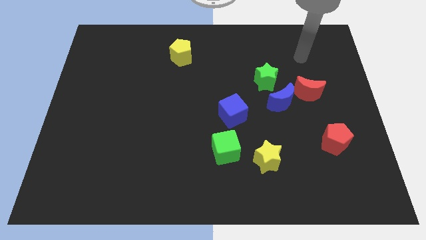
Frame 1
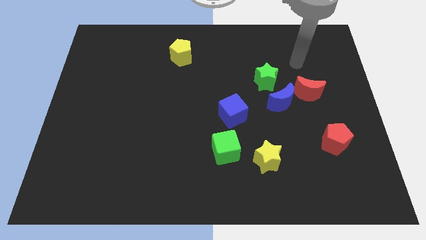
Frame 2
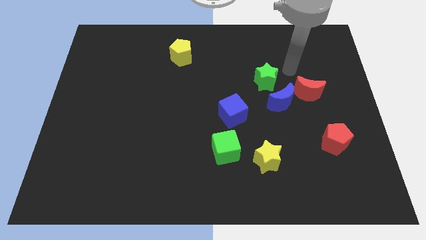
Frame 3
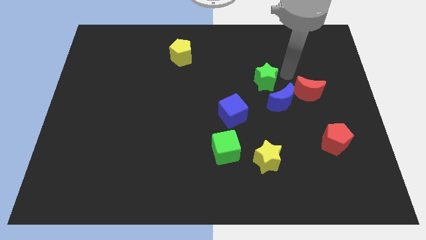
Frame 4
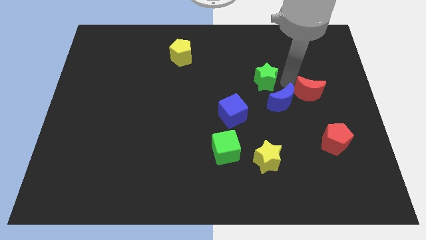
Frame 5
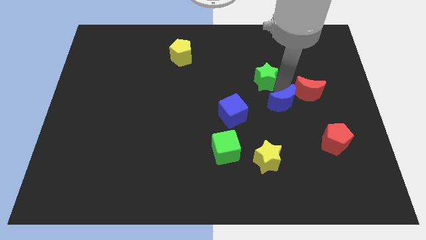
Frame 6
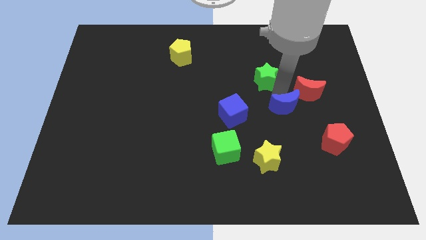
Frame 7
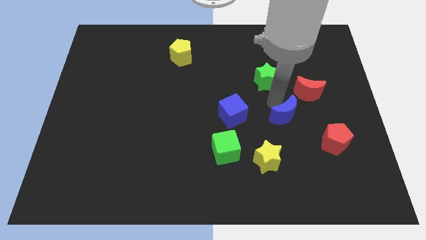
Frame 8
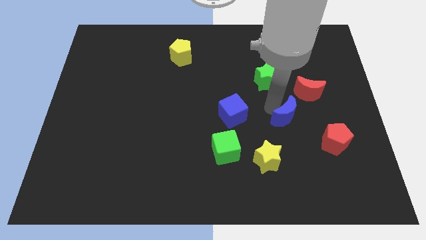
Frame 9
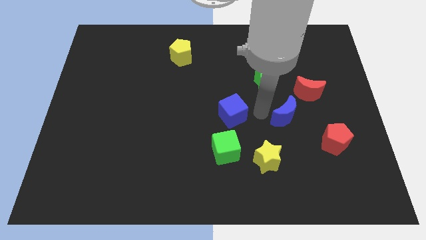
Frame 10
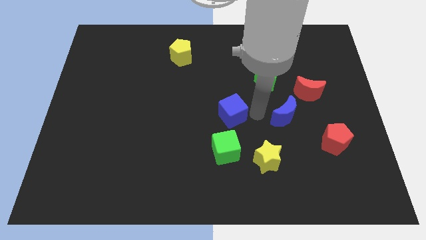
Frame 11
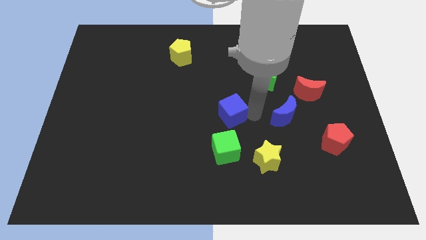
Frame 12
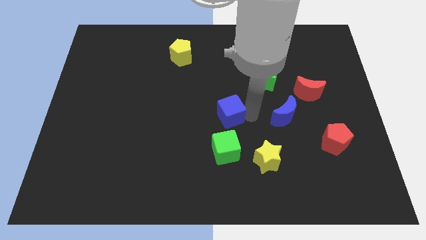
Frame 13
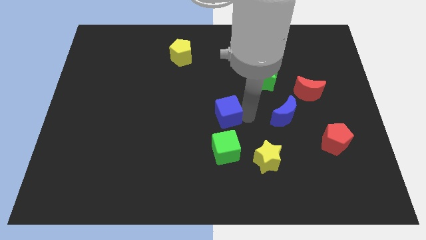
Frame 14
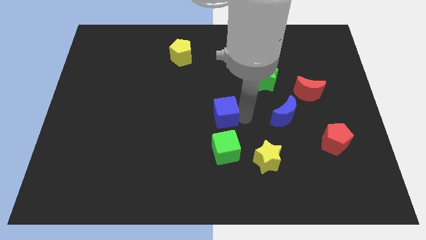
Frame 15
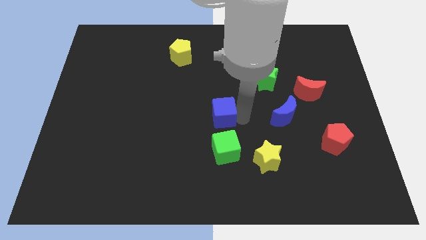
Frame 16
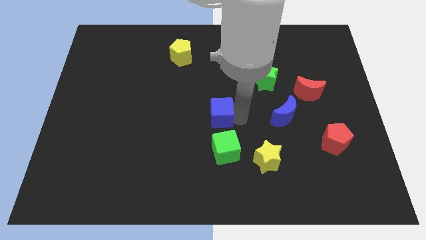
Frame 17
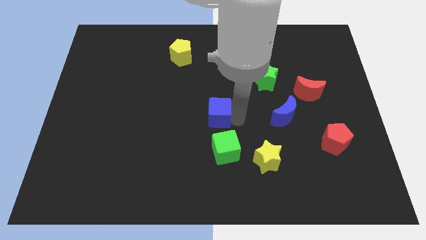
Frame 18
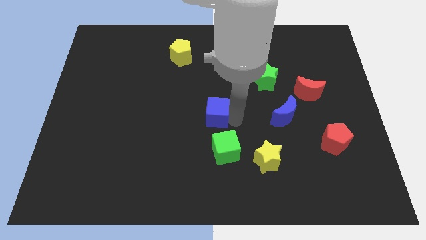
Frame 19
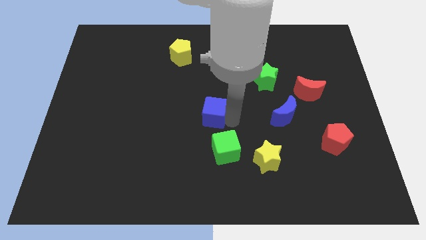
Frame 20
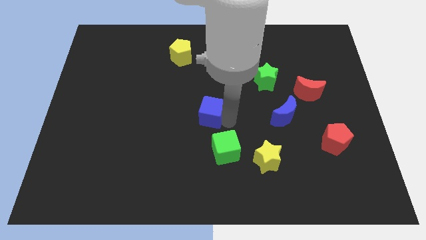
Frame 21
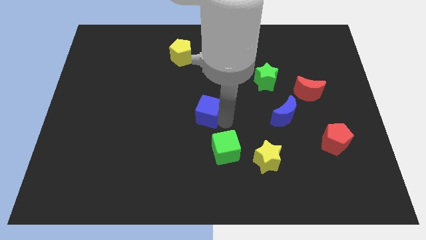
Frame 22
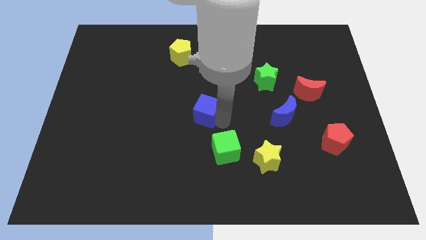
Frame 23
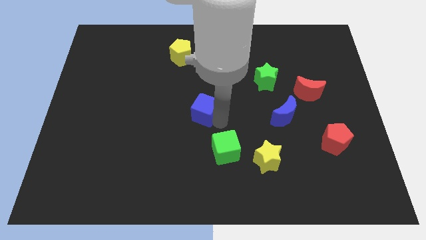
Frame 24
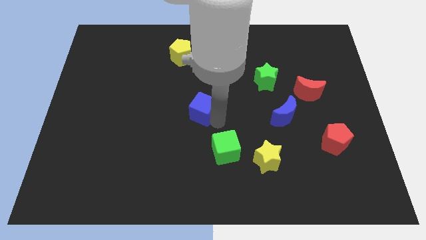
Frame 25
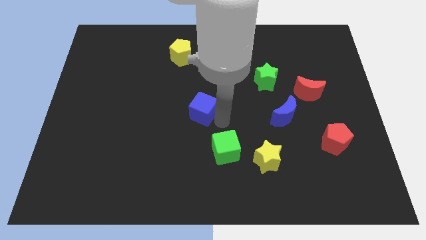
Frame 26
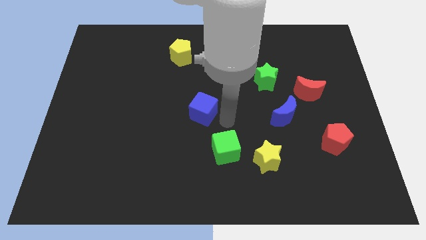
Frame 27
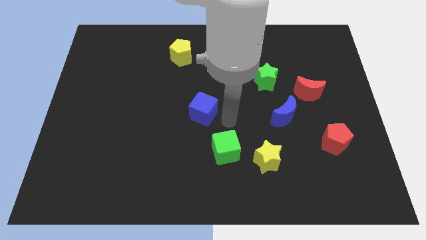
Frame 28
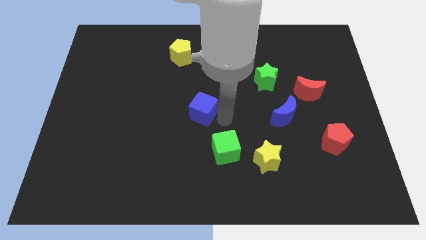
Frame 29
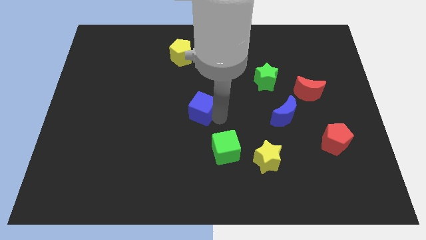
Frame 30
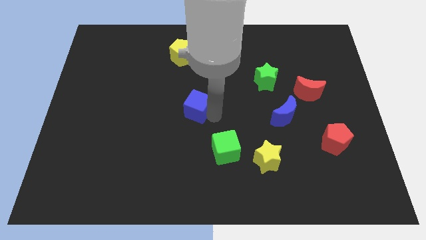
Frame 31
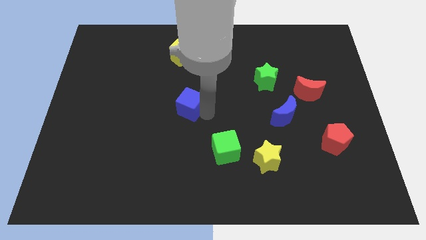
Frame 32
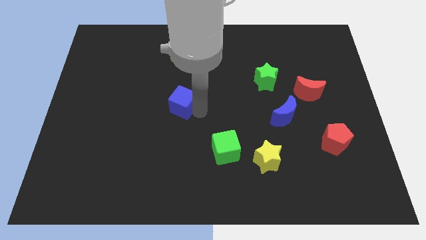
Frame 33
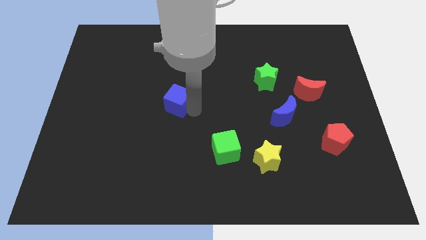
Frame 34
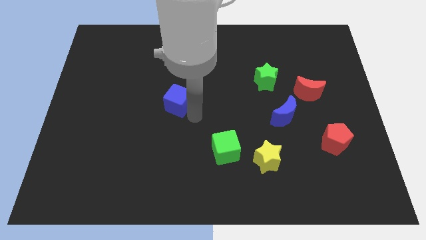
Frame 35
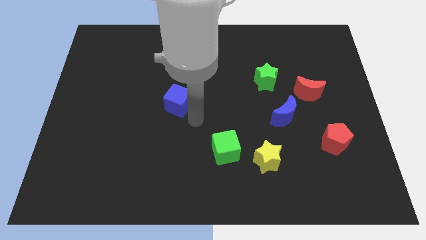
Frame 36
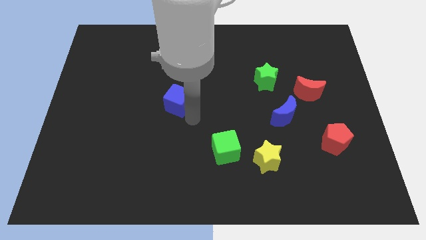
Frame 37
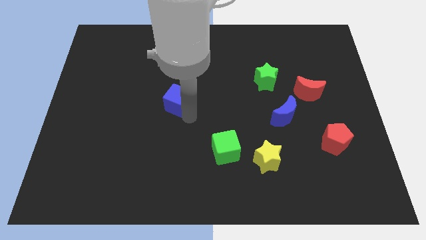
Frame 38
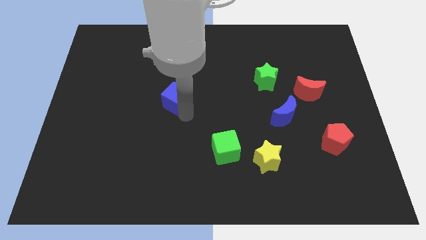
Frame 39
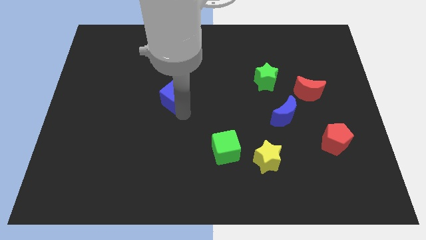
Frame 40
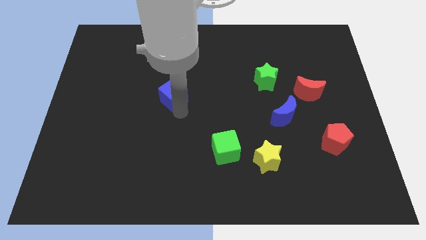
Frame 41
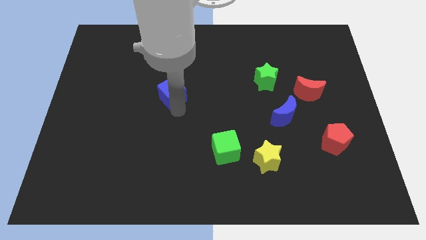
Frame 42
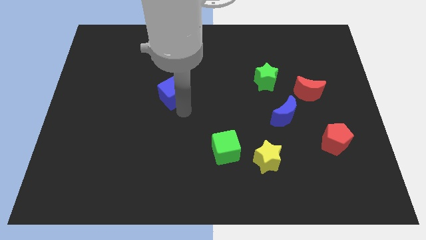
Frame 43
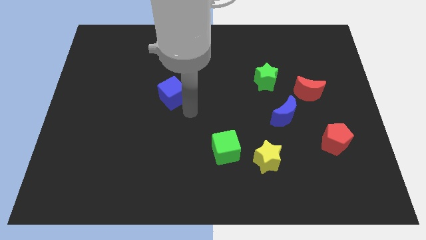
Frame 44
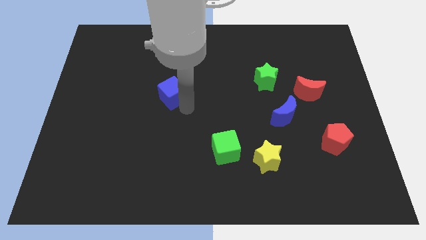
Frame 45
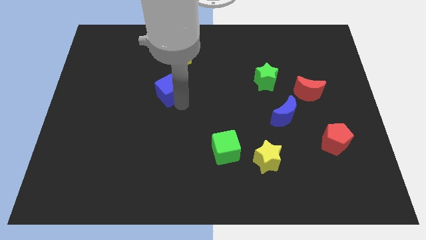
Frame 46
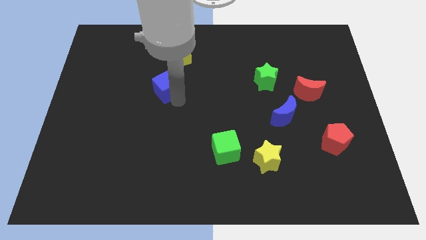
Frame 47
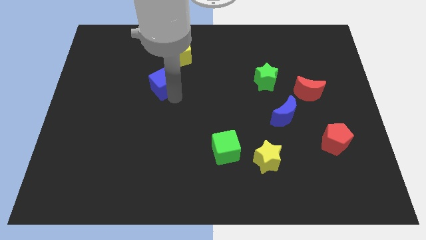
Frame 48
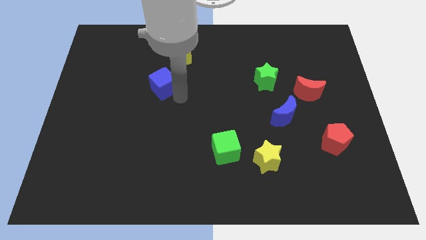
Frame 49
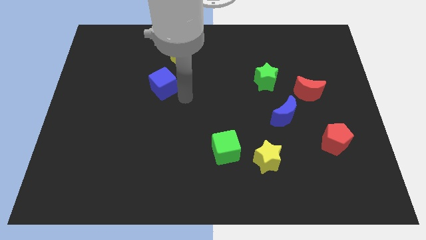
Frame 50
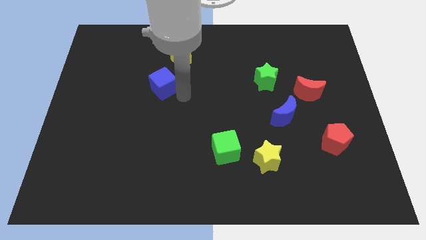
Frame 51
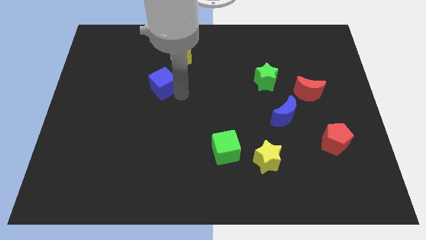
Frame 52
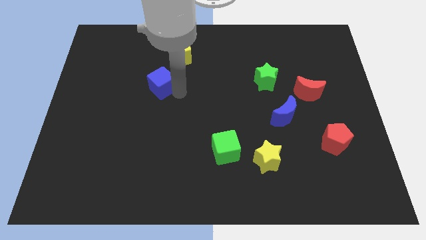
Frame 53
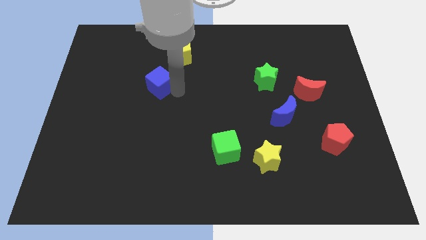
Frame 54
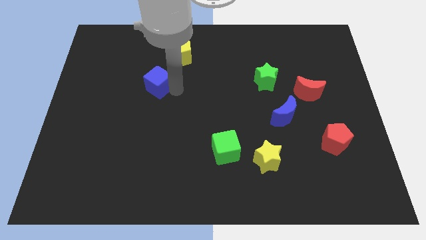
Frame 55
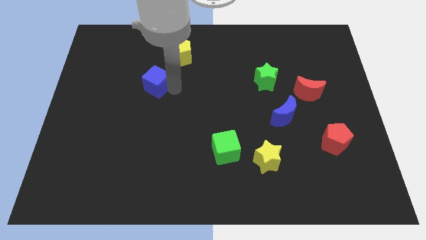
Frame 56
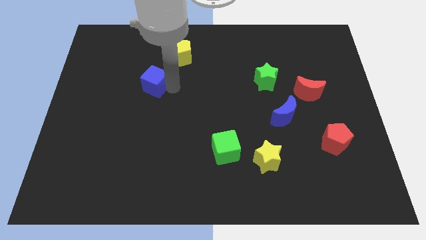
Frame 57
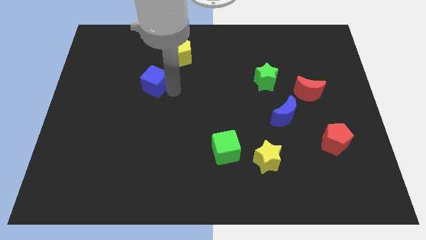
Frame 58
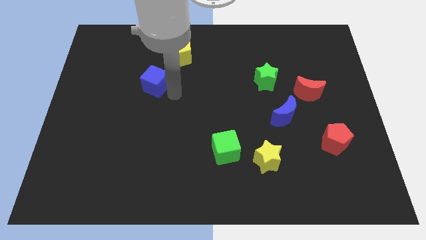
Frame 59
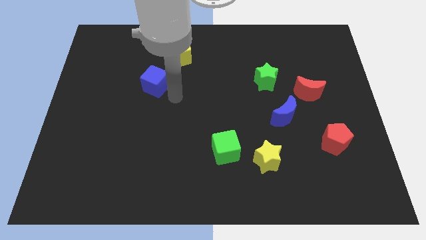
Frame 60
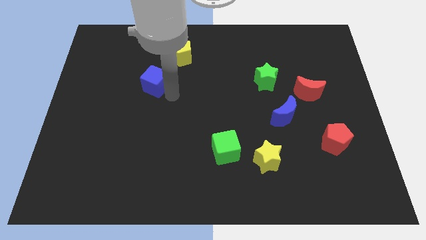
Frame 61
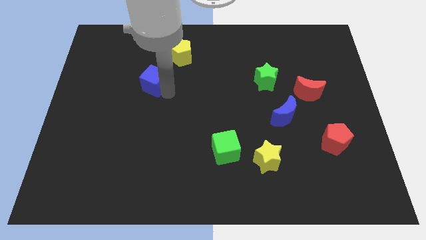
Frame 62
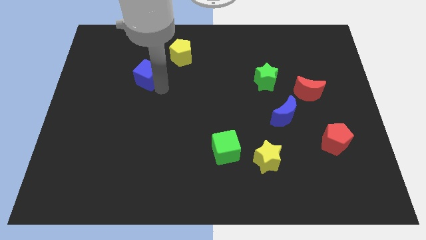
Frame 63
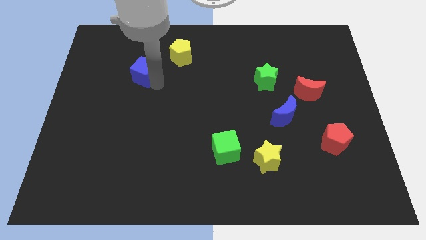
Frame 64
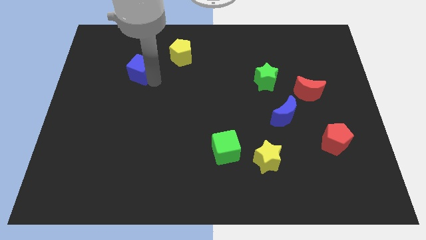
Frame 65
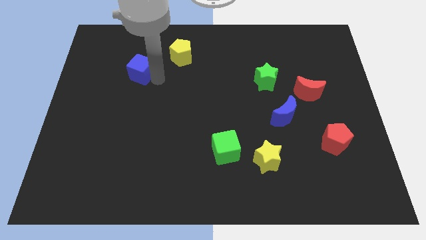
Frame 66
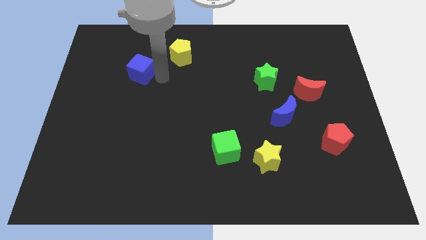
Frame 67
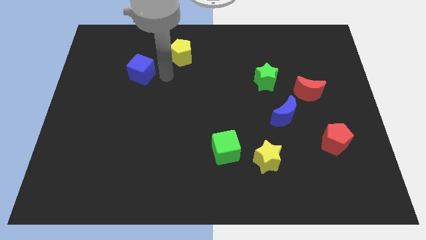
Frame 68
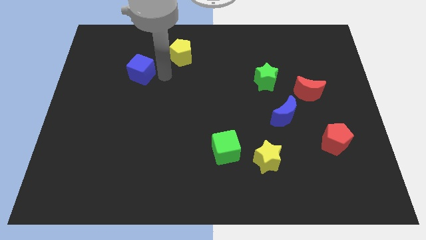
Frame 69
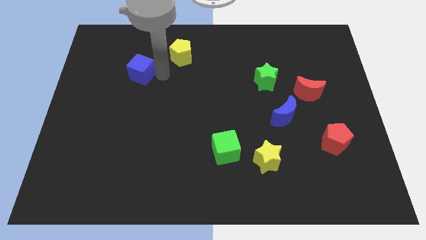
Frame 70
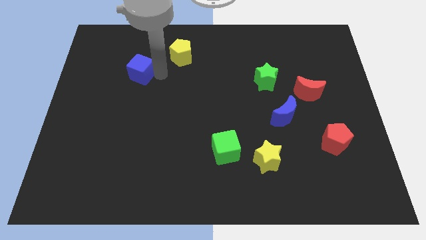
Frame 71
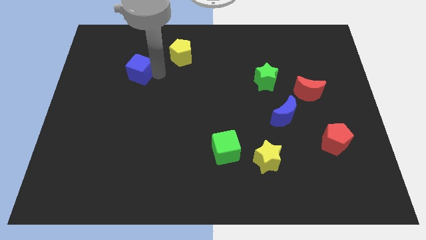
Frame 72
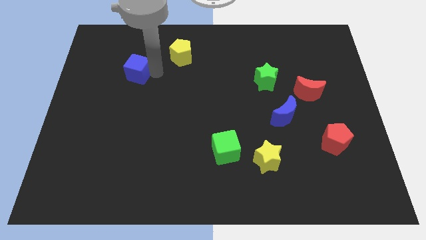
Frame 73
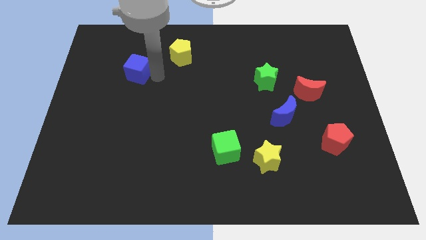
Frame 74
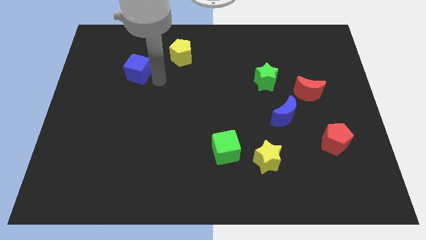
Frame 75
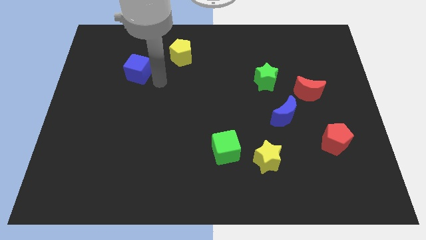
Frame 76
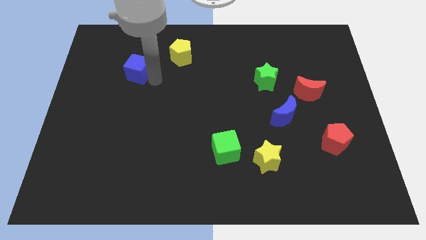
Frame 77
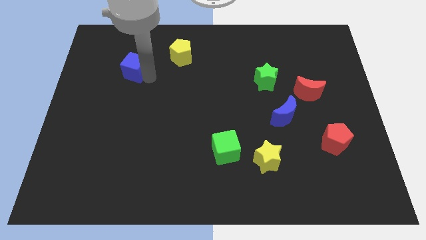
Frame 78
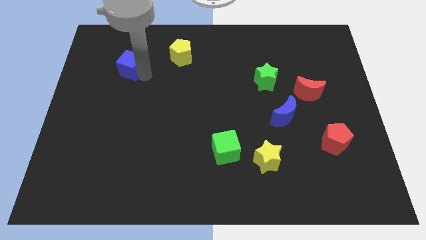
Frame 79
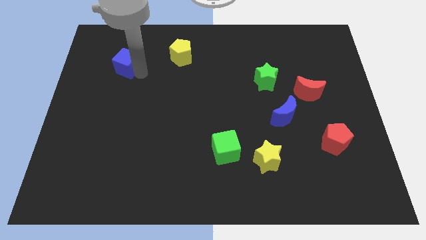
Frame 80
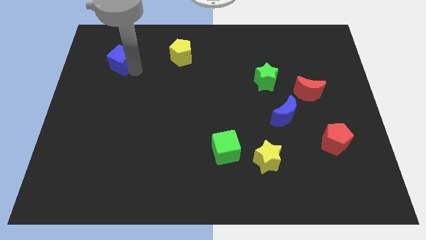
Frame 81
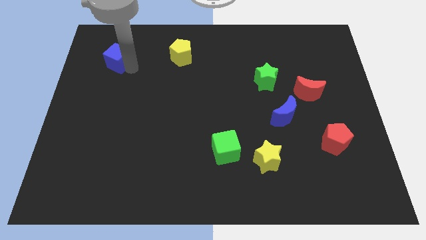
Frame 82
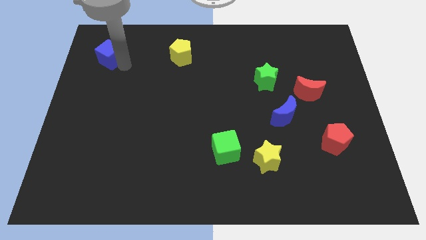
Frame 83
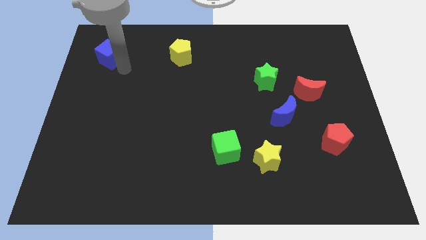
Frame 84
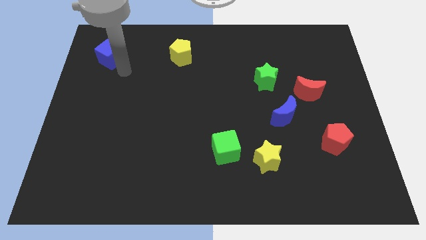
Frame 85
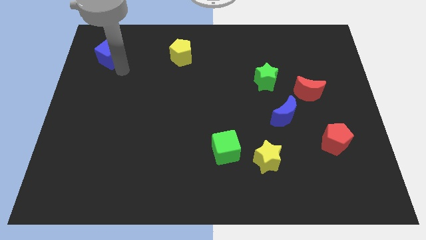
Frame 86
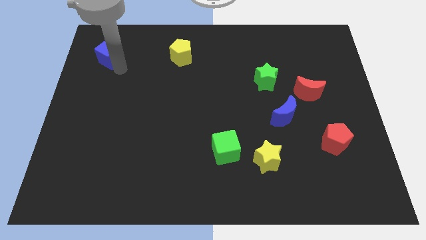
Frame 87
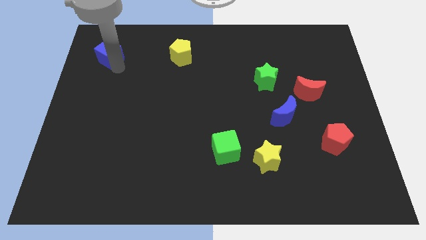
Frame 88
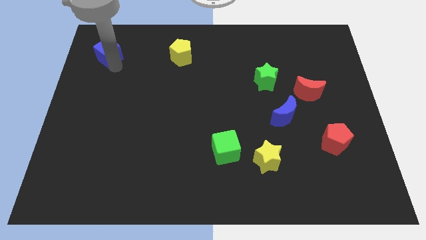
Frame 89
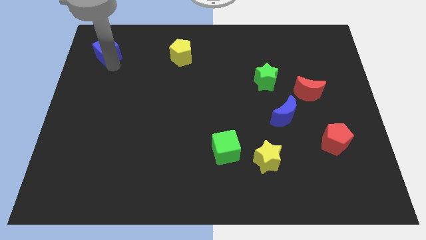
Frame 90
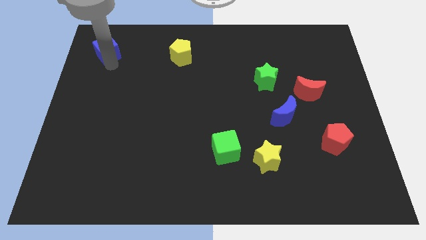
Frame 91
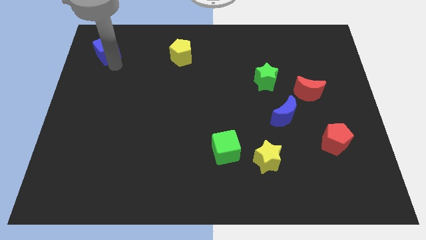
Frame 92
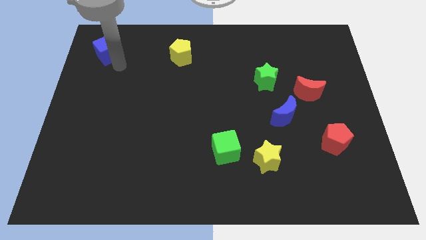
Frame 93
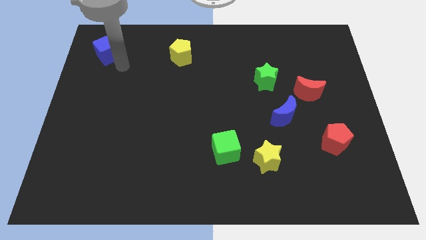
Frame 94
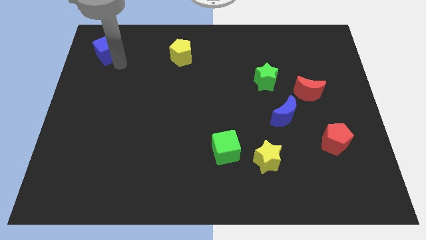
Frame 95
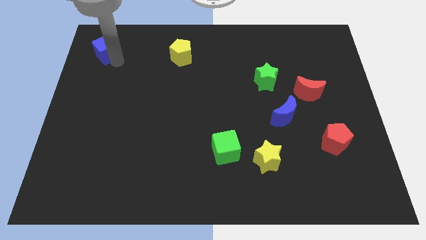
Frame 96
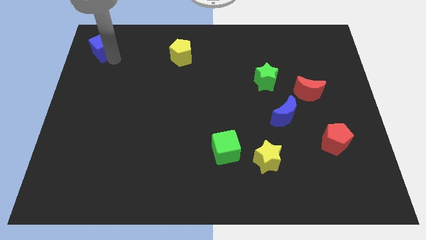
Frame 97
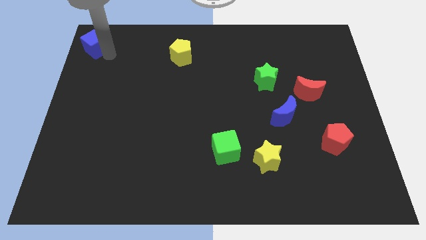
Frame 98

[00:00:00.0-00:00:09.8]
push the blue cube to the upper left corner
